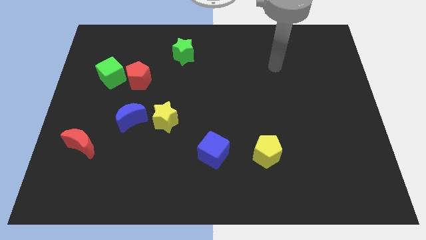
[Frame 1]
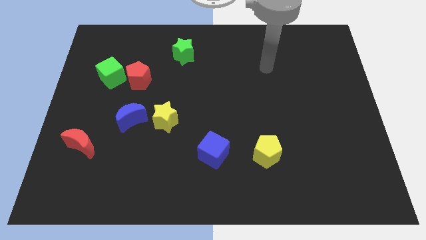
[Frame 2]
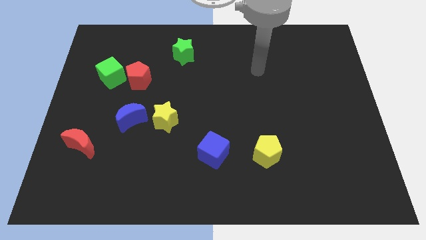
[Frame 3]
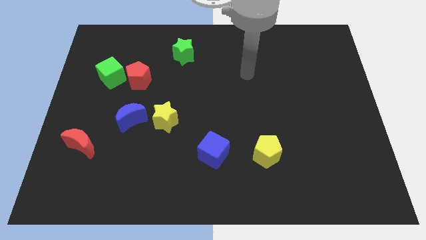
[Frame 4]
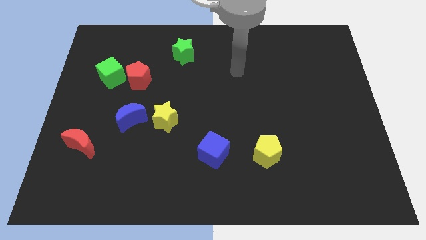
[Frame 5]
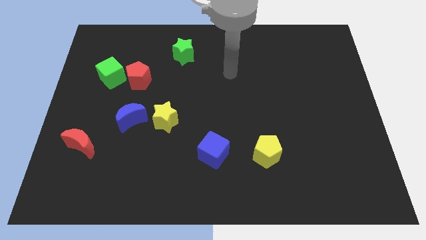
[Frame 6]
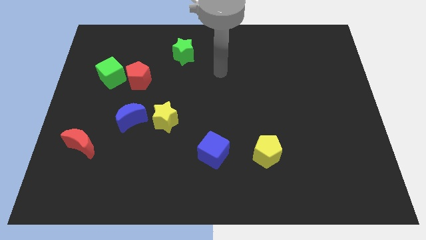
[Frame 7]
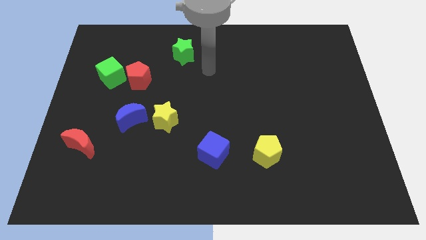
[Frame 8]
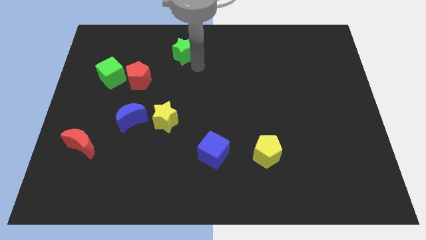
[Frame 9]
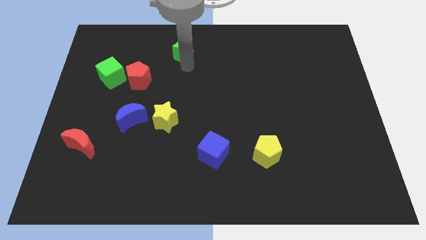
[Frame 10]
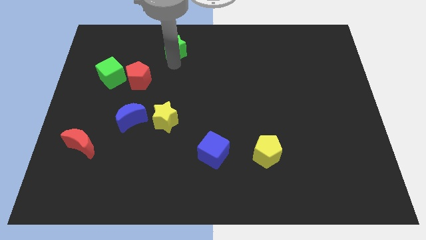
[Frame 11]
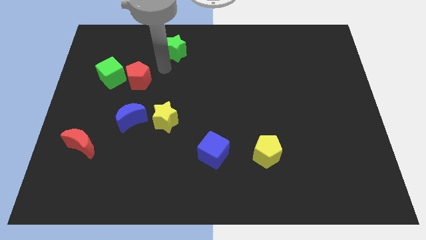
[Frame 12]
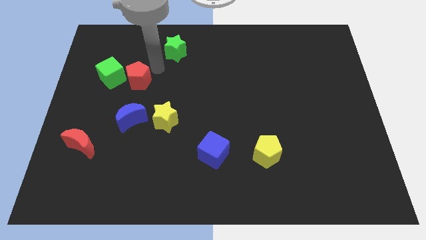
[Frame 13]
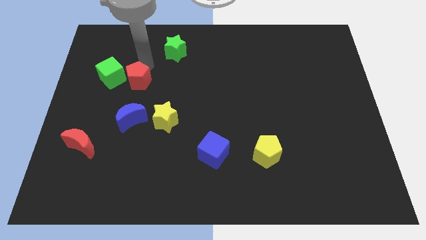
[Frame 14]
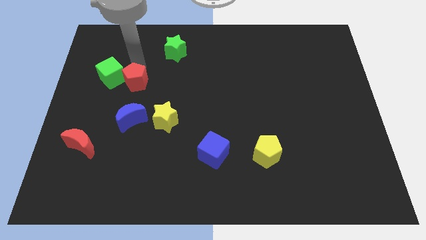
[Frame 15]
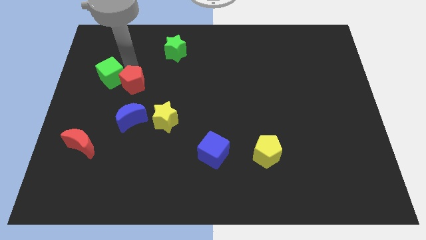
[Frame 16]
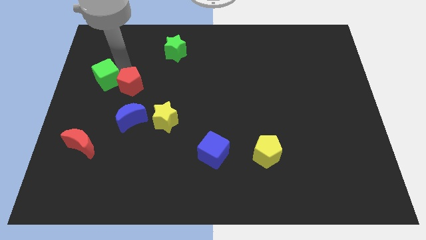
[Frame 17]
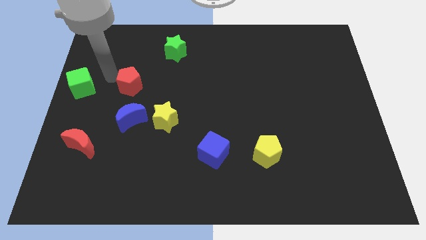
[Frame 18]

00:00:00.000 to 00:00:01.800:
separate the red pentagon from the green cube

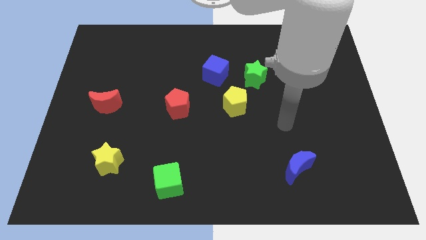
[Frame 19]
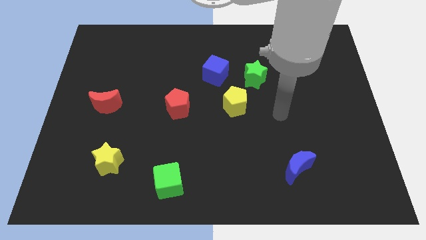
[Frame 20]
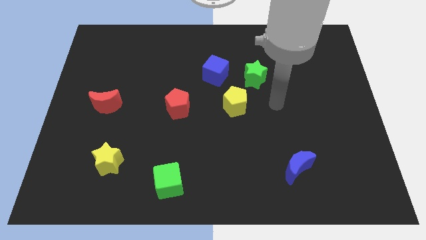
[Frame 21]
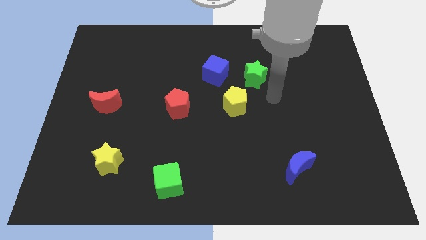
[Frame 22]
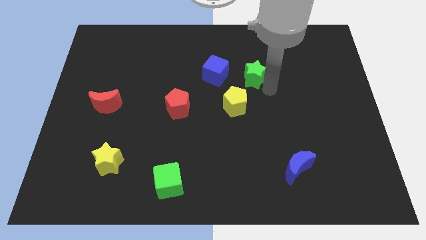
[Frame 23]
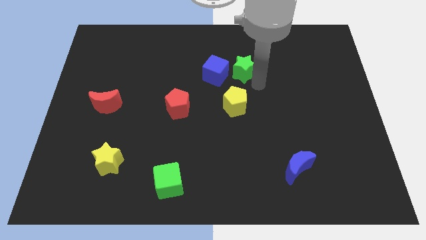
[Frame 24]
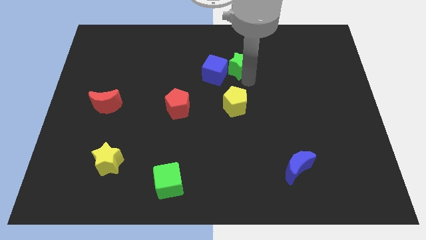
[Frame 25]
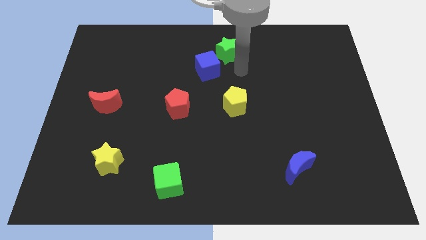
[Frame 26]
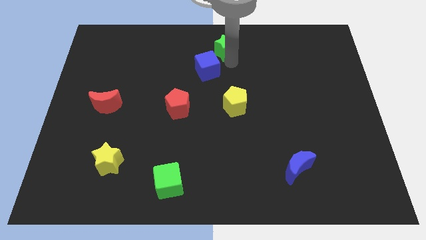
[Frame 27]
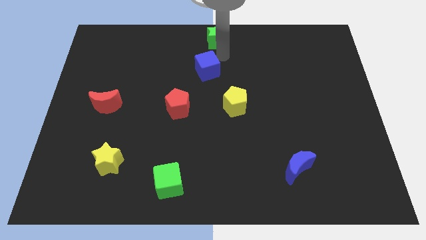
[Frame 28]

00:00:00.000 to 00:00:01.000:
pull the blue cube apart from the green star

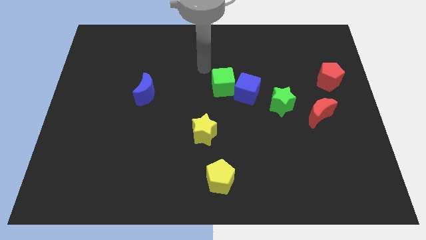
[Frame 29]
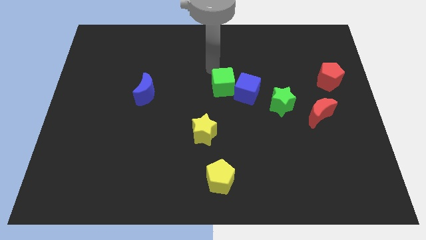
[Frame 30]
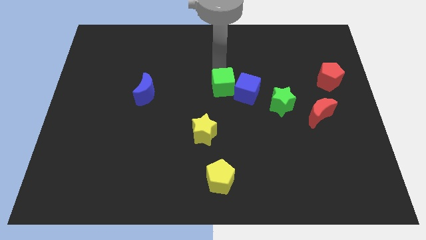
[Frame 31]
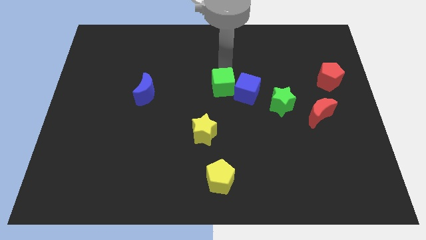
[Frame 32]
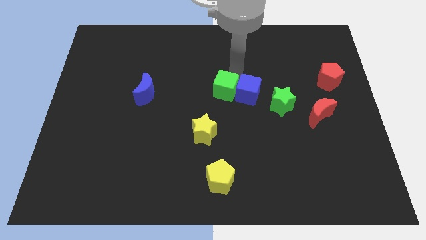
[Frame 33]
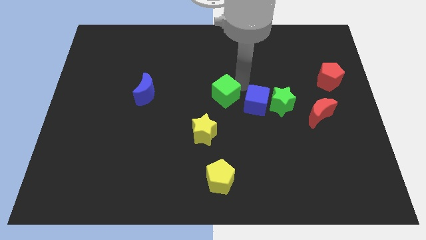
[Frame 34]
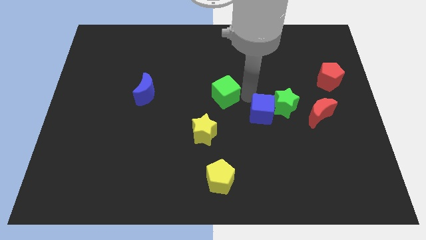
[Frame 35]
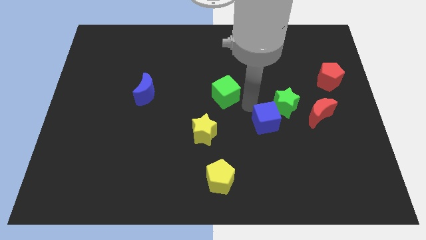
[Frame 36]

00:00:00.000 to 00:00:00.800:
move the green cube away from the blue cube

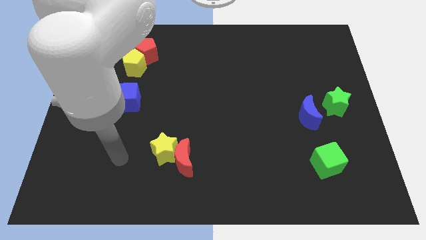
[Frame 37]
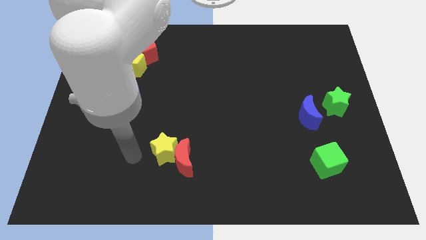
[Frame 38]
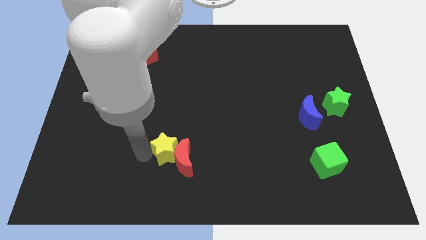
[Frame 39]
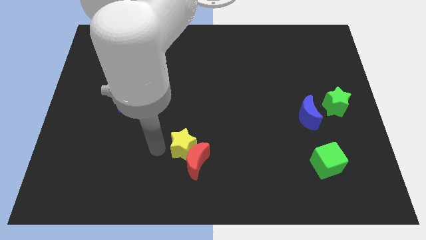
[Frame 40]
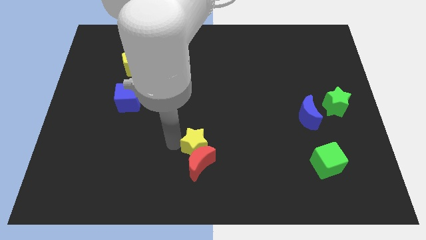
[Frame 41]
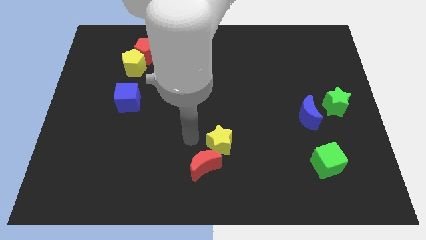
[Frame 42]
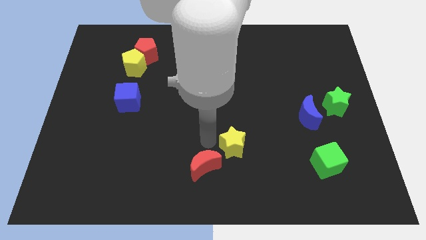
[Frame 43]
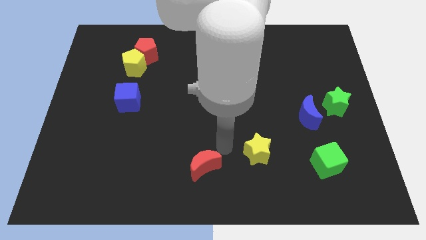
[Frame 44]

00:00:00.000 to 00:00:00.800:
separate the red moon from the yellow star

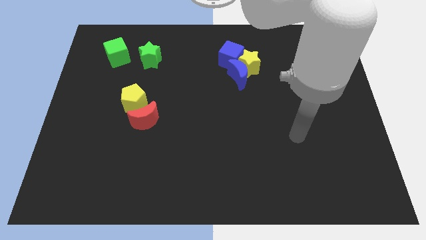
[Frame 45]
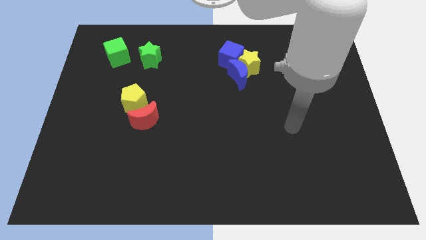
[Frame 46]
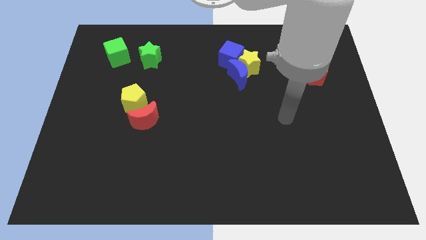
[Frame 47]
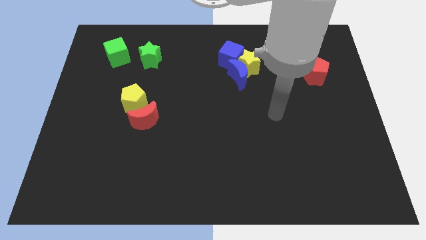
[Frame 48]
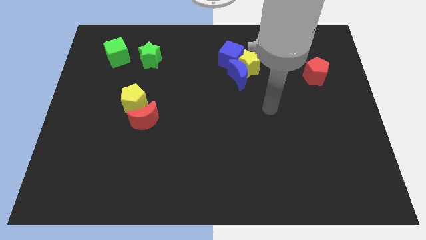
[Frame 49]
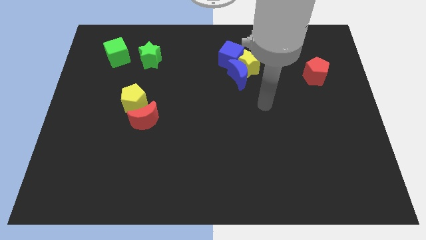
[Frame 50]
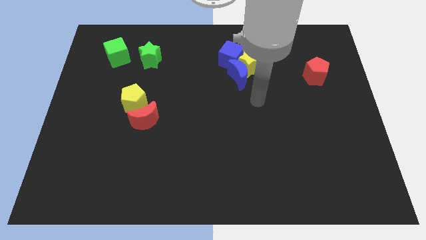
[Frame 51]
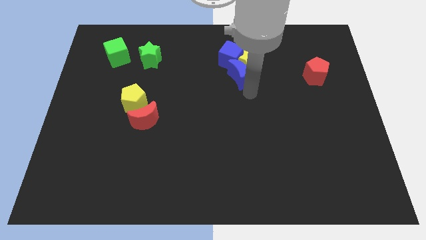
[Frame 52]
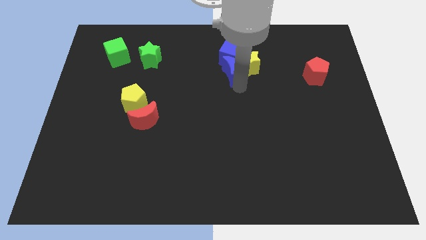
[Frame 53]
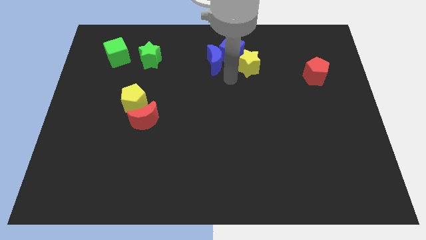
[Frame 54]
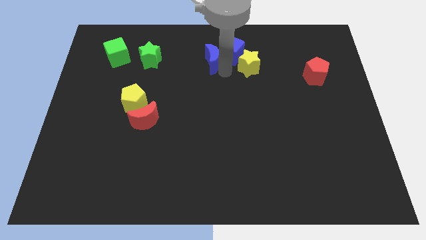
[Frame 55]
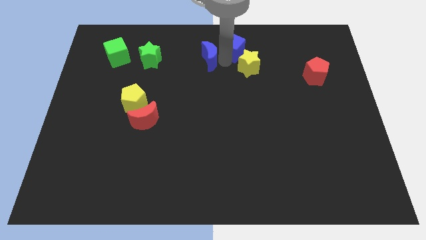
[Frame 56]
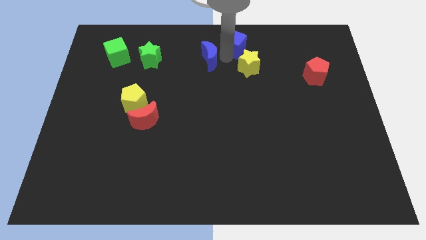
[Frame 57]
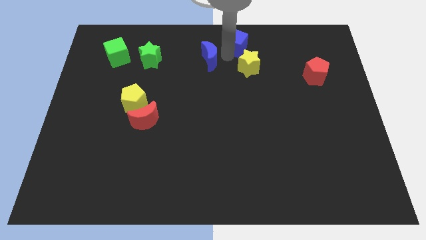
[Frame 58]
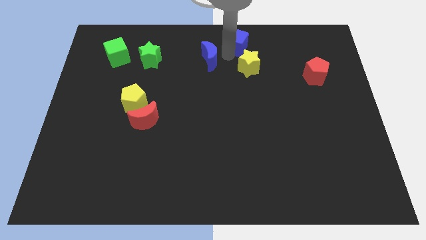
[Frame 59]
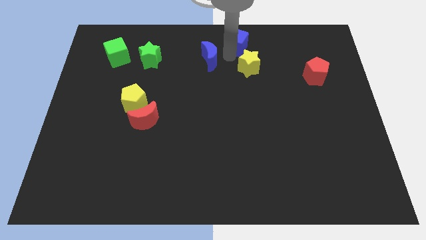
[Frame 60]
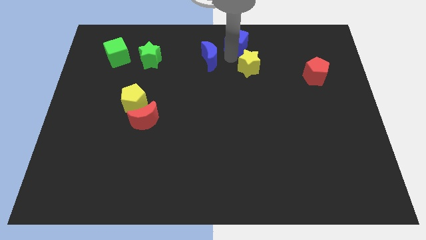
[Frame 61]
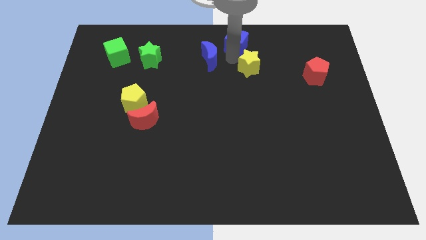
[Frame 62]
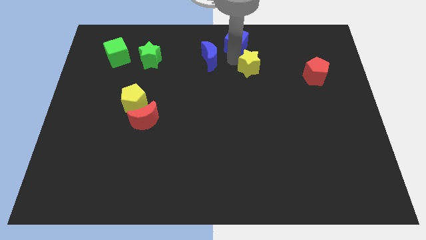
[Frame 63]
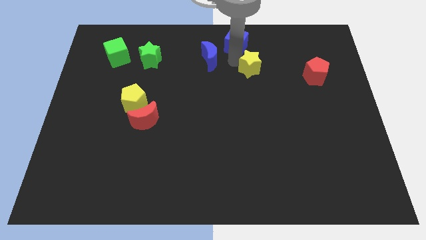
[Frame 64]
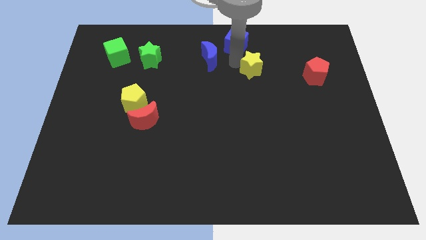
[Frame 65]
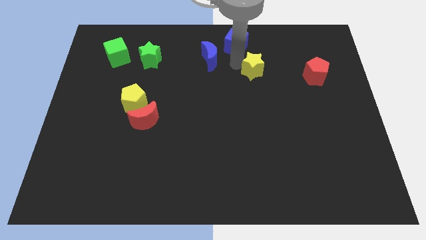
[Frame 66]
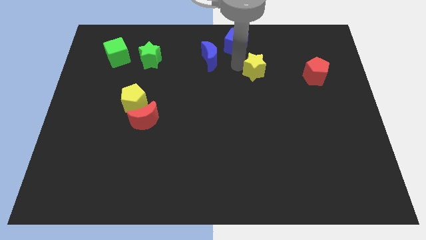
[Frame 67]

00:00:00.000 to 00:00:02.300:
pull the yellow star apart from the blue moon and blue cube

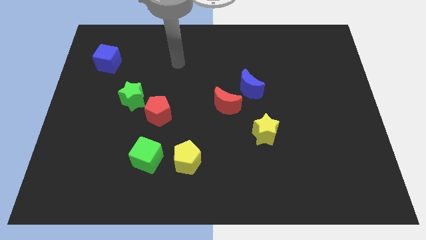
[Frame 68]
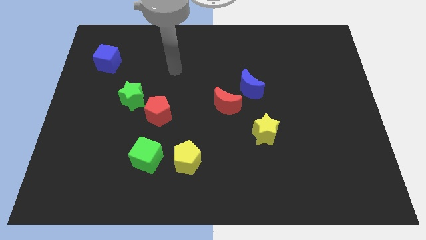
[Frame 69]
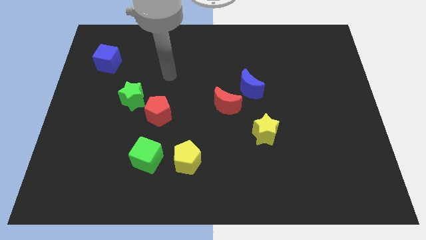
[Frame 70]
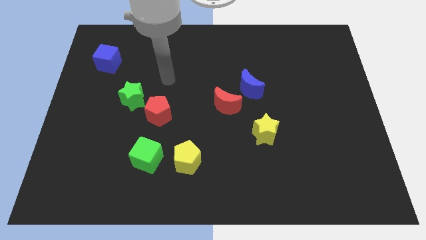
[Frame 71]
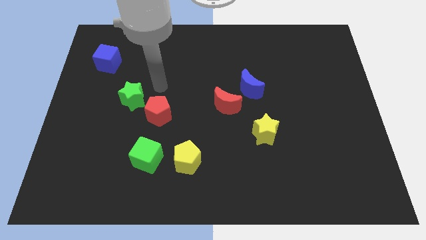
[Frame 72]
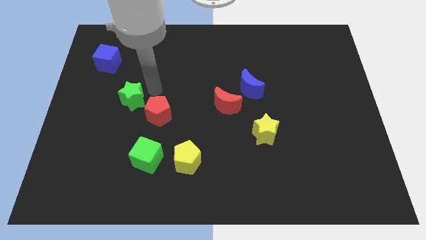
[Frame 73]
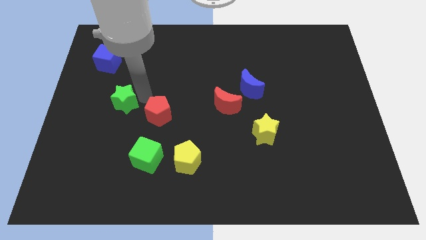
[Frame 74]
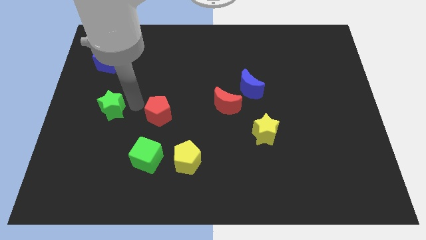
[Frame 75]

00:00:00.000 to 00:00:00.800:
move the red pentagon away from the green star

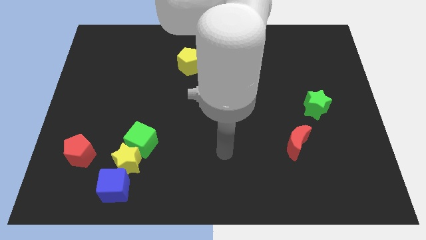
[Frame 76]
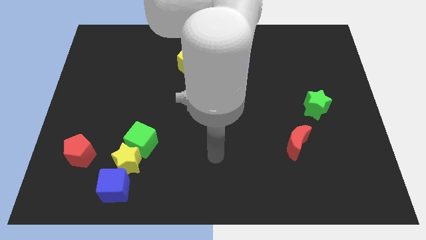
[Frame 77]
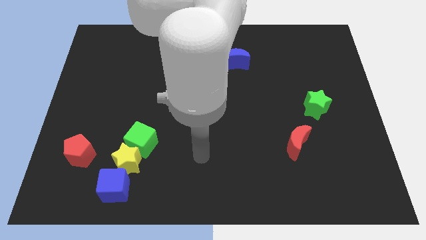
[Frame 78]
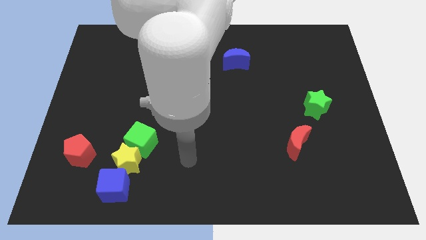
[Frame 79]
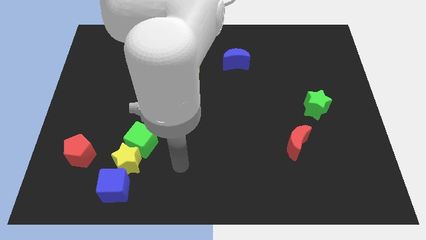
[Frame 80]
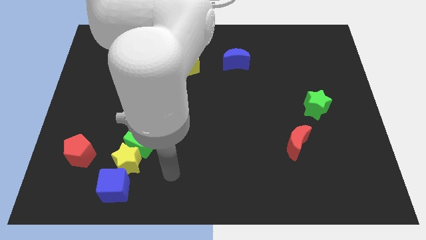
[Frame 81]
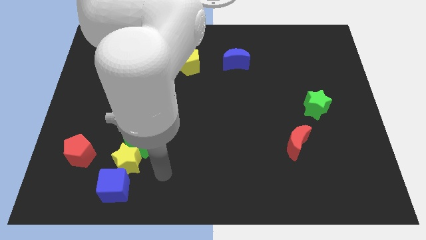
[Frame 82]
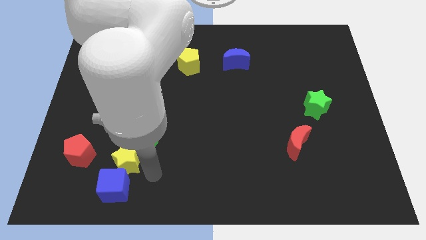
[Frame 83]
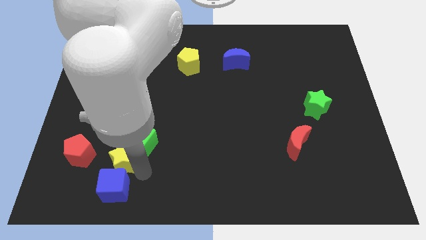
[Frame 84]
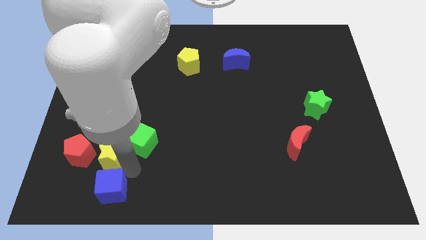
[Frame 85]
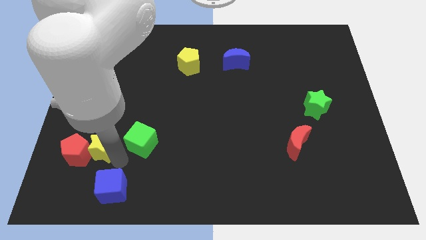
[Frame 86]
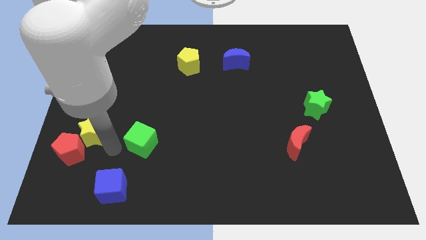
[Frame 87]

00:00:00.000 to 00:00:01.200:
separate the green cube from the yellow star

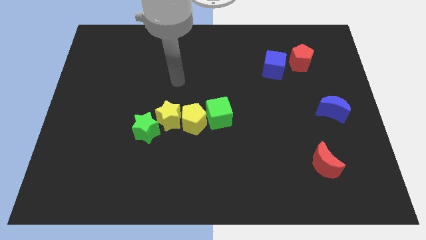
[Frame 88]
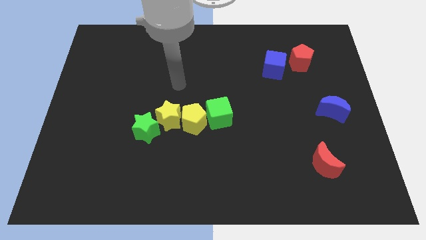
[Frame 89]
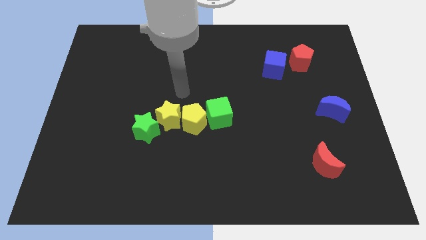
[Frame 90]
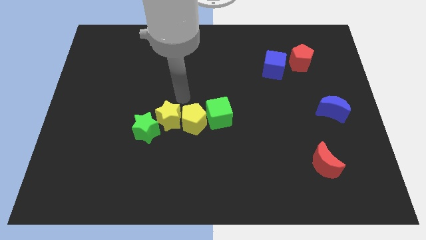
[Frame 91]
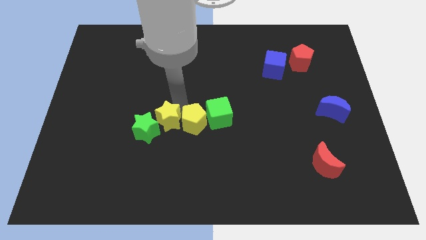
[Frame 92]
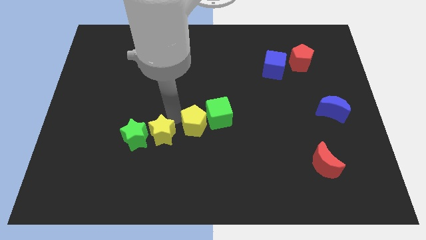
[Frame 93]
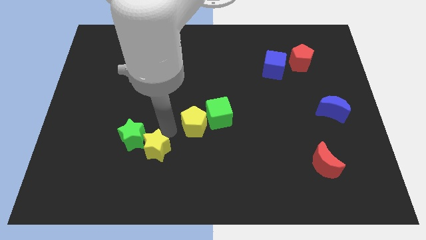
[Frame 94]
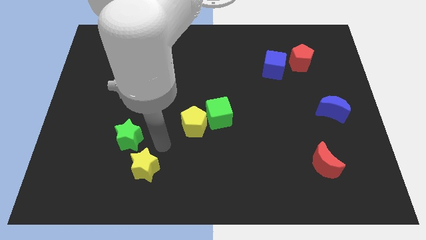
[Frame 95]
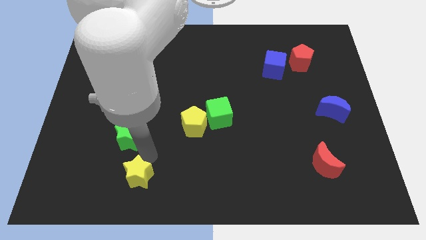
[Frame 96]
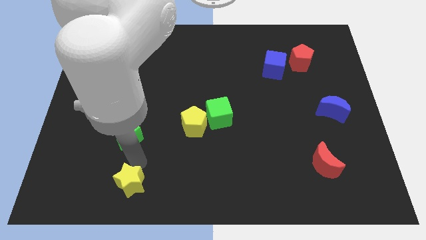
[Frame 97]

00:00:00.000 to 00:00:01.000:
pull the green star apart from the yellow star
